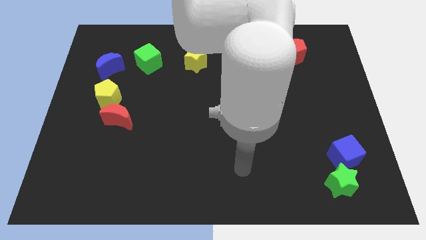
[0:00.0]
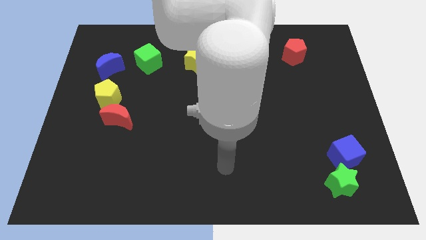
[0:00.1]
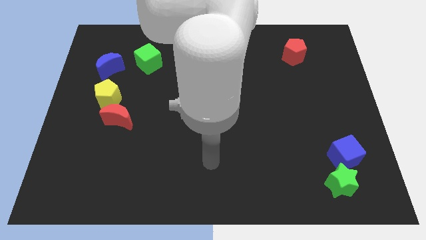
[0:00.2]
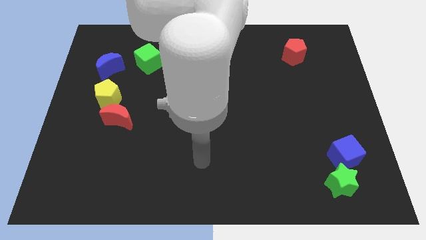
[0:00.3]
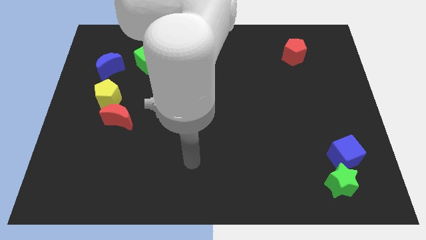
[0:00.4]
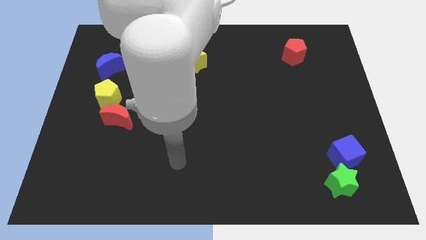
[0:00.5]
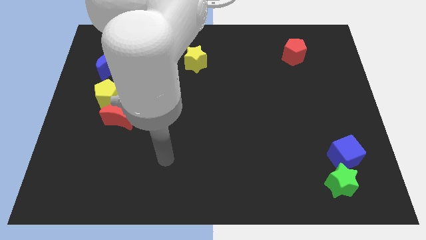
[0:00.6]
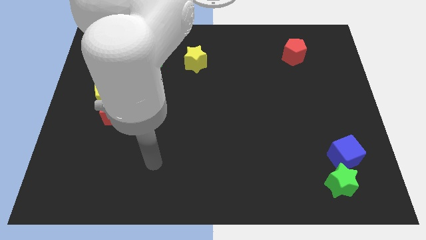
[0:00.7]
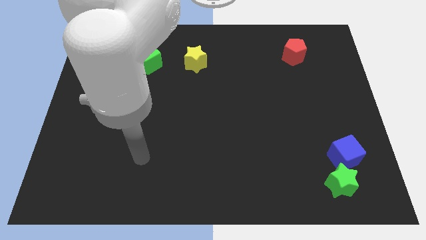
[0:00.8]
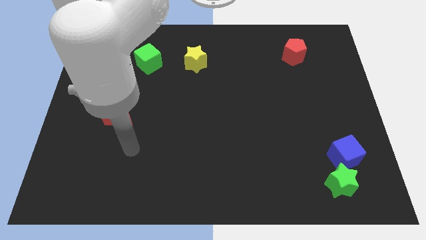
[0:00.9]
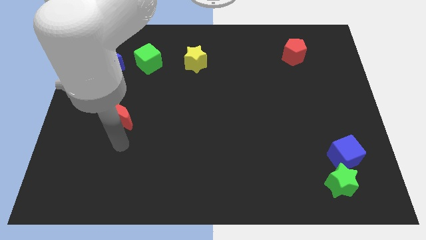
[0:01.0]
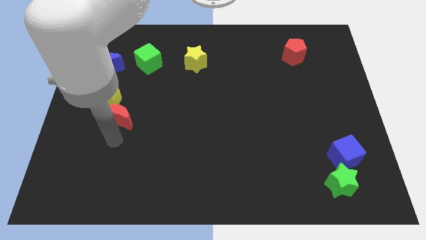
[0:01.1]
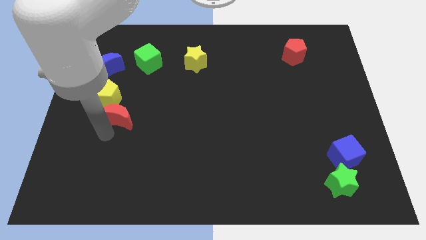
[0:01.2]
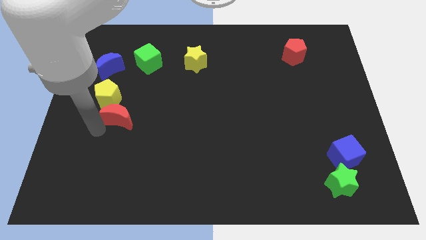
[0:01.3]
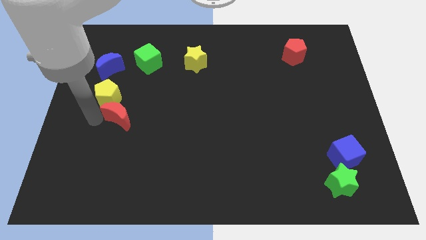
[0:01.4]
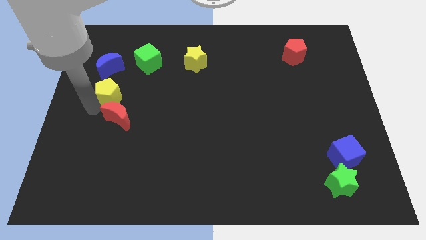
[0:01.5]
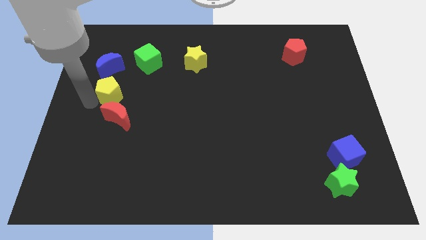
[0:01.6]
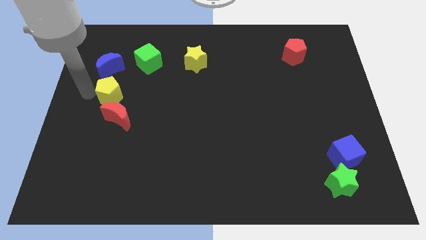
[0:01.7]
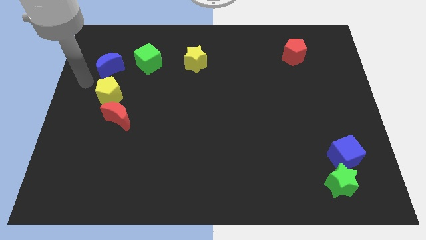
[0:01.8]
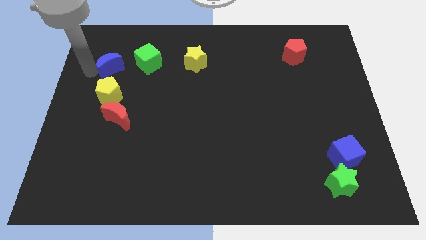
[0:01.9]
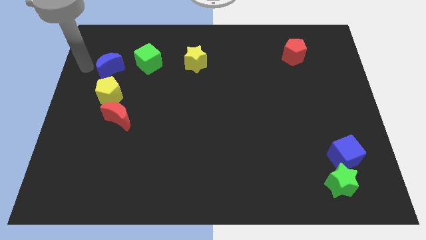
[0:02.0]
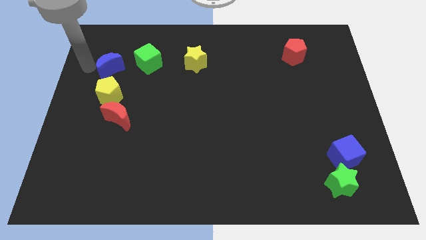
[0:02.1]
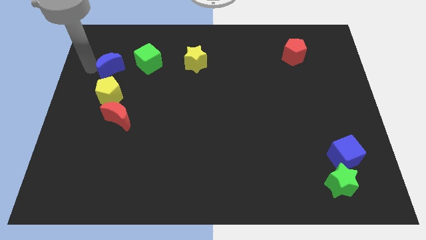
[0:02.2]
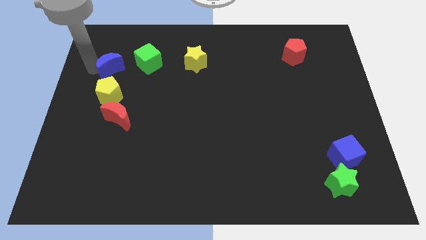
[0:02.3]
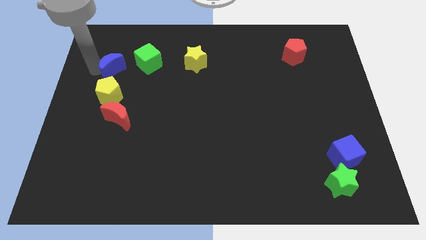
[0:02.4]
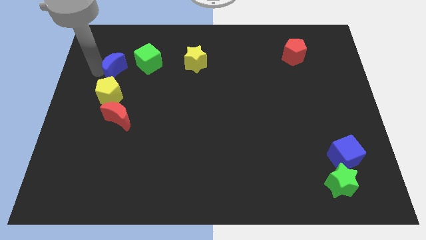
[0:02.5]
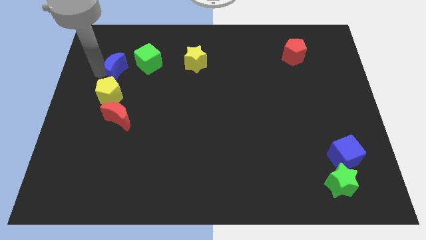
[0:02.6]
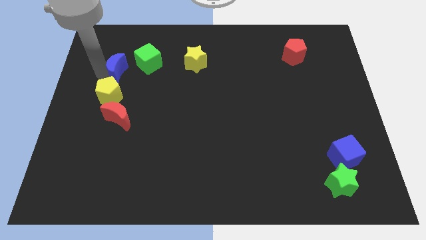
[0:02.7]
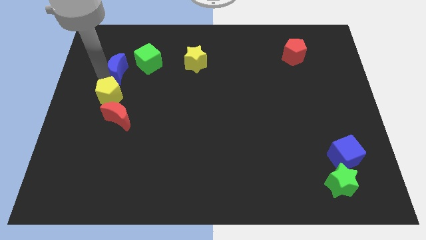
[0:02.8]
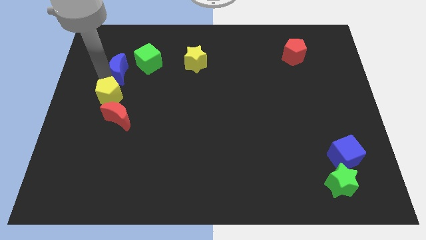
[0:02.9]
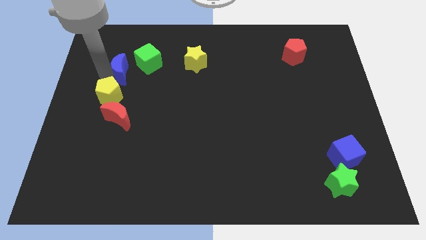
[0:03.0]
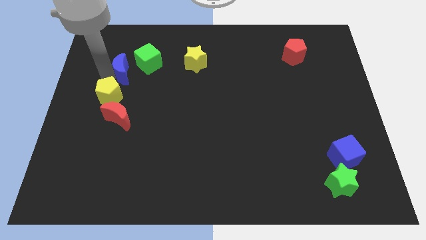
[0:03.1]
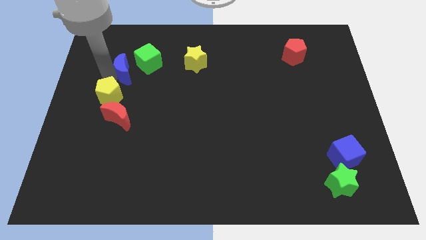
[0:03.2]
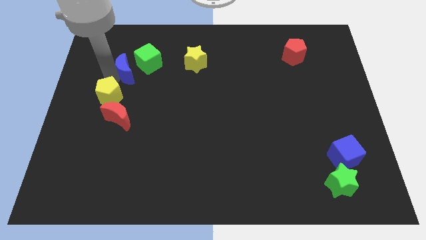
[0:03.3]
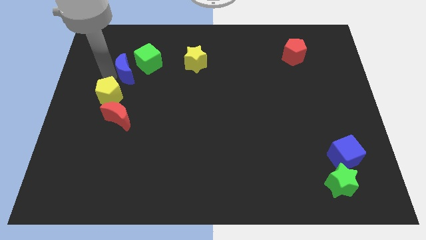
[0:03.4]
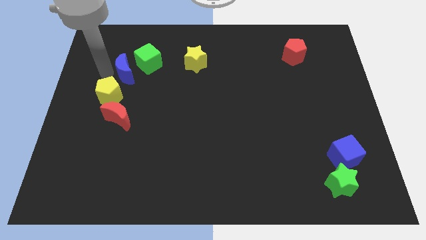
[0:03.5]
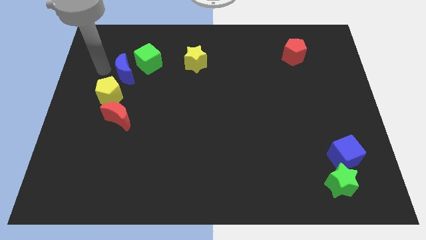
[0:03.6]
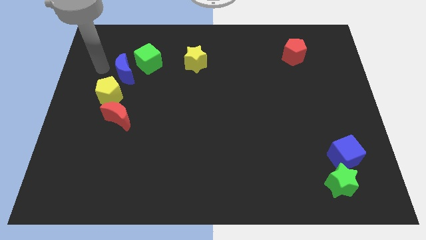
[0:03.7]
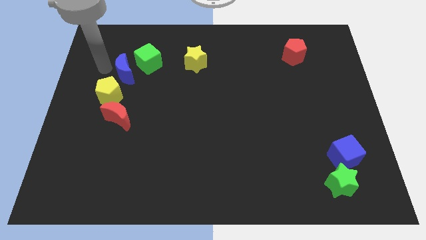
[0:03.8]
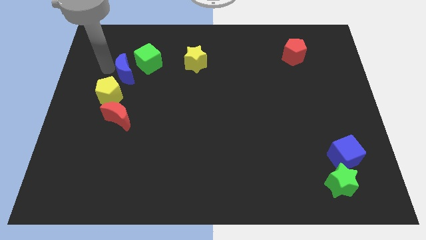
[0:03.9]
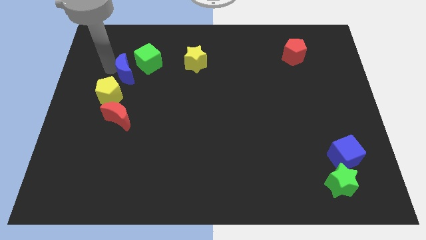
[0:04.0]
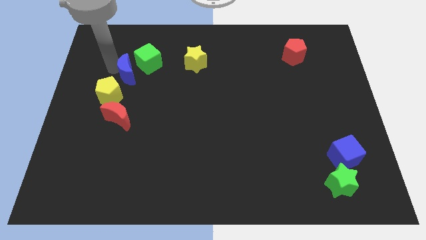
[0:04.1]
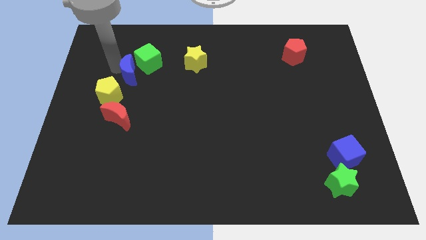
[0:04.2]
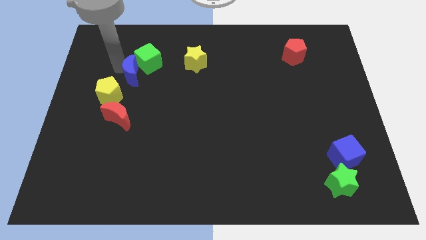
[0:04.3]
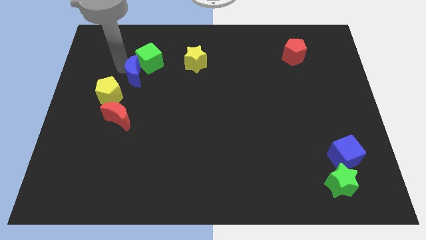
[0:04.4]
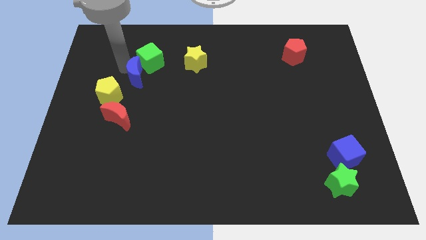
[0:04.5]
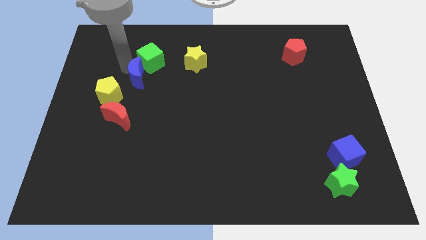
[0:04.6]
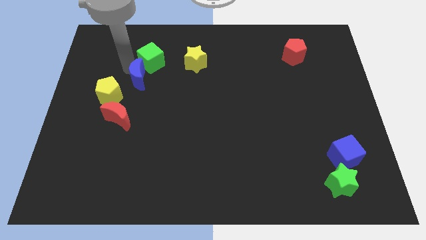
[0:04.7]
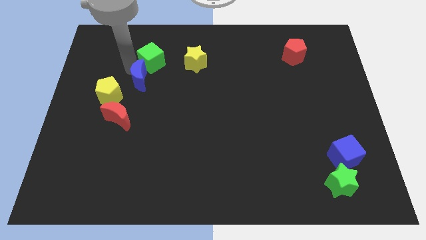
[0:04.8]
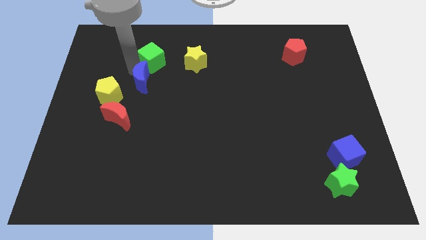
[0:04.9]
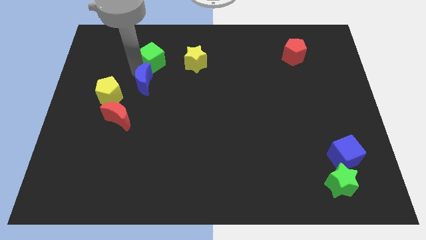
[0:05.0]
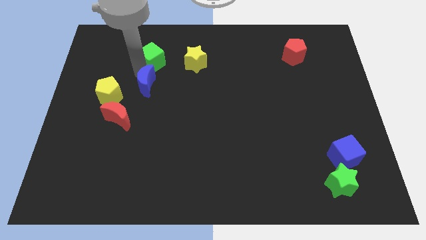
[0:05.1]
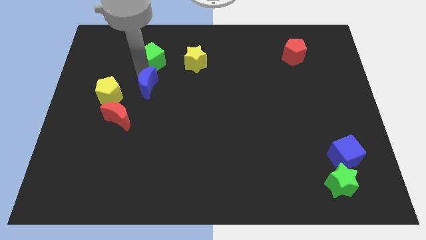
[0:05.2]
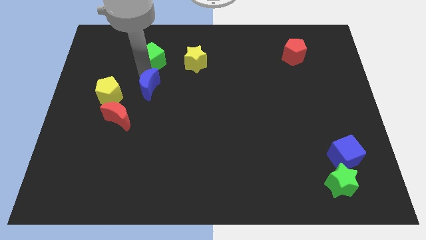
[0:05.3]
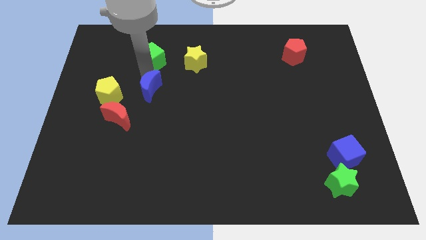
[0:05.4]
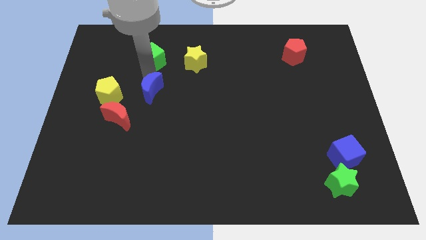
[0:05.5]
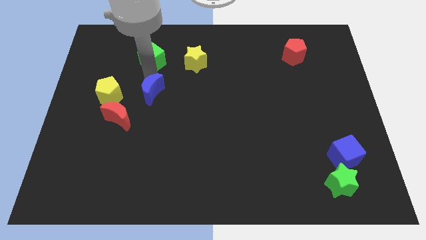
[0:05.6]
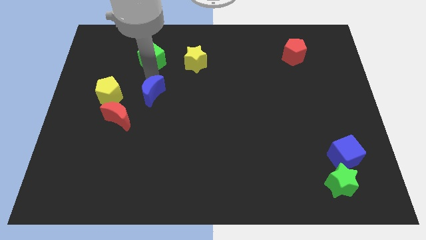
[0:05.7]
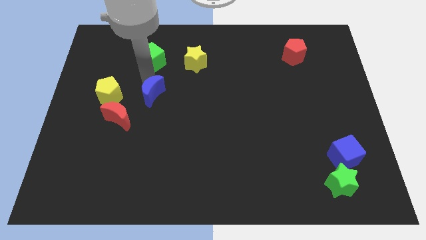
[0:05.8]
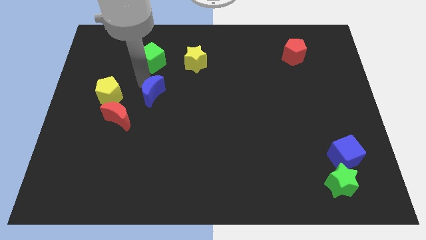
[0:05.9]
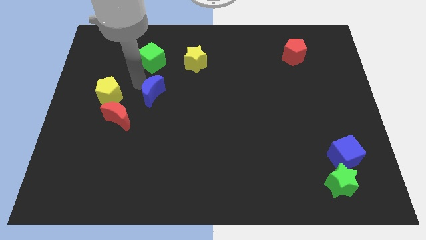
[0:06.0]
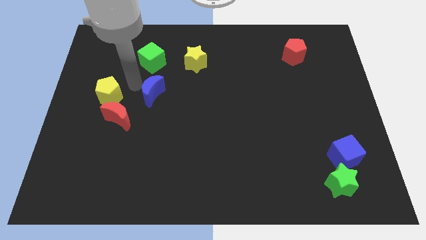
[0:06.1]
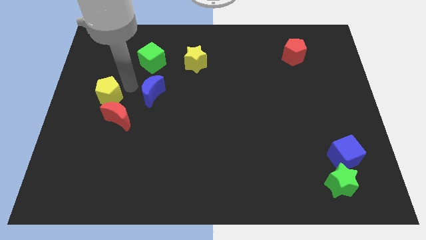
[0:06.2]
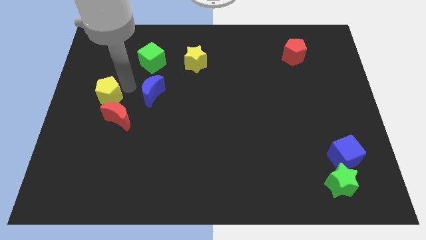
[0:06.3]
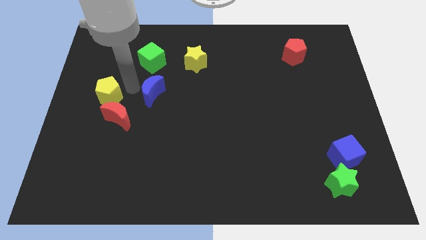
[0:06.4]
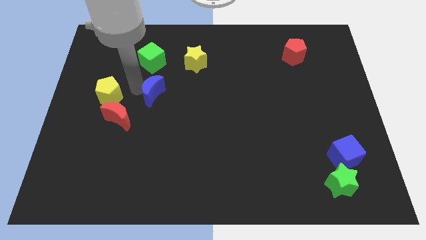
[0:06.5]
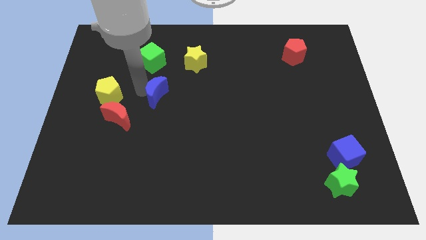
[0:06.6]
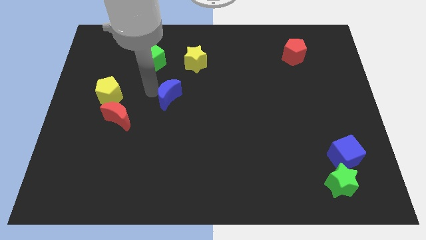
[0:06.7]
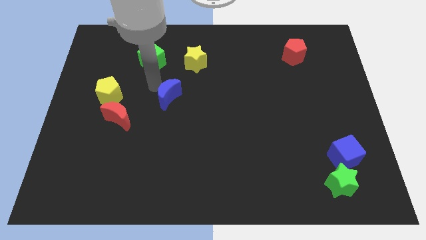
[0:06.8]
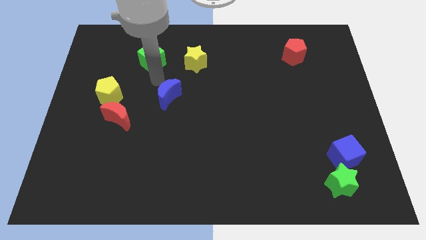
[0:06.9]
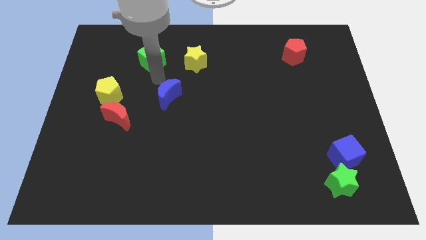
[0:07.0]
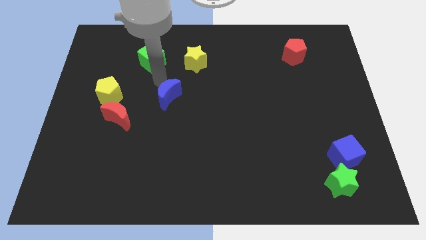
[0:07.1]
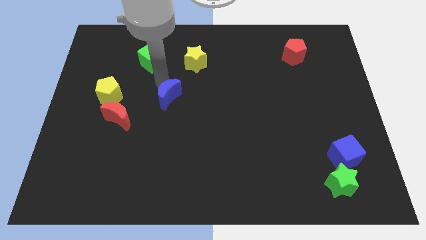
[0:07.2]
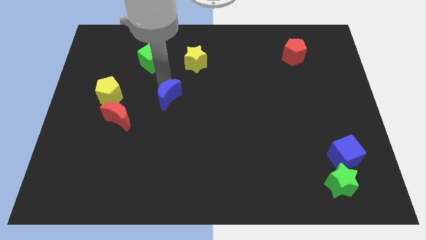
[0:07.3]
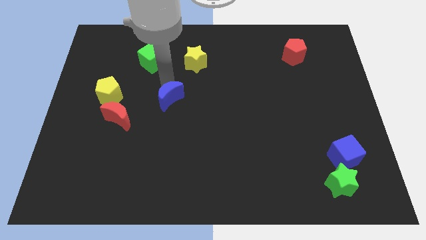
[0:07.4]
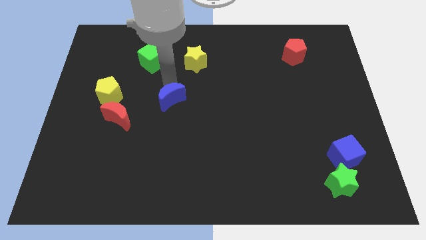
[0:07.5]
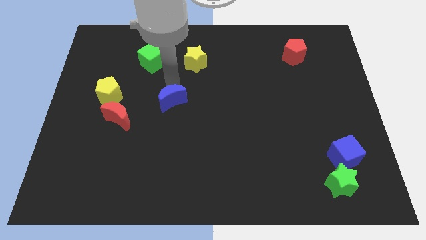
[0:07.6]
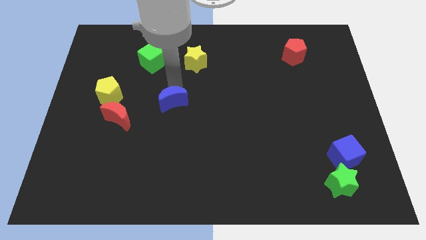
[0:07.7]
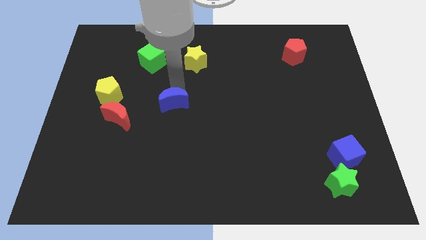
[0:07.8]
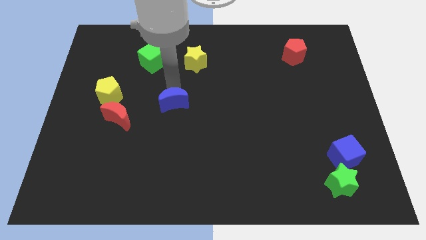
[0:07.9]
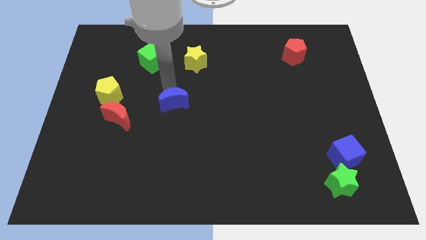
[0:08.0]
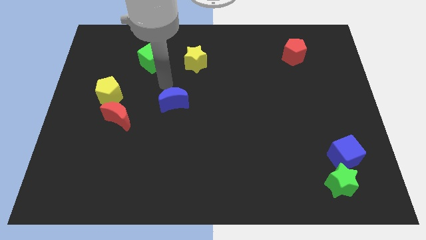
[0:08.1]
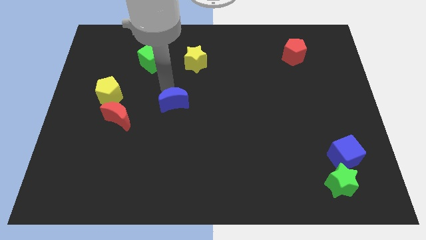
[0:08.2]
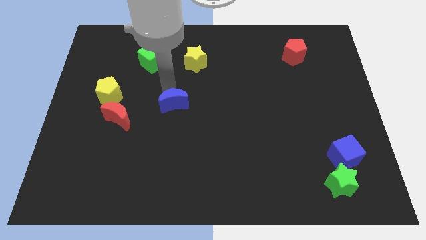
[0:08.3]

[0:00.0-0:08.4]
slide the blue moon downwards and right diagonally

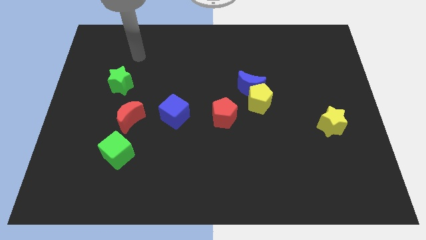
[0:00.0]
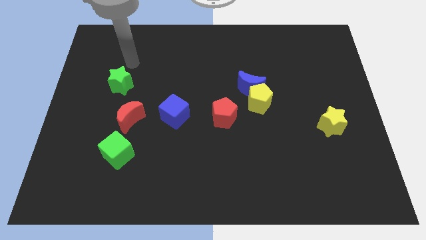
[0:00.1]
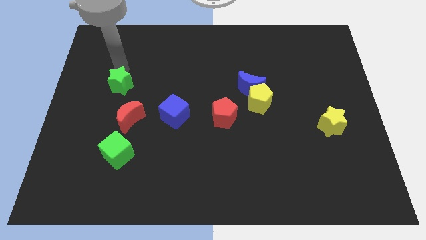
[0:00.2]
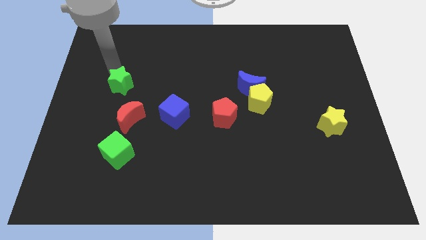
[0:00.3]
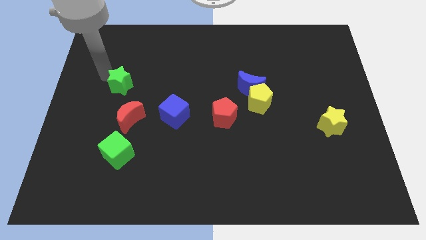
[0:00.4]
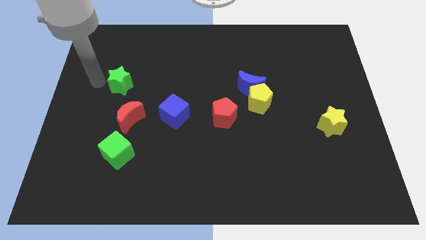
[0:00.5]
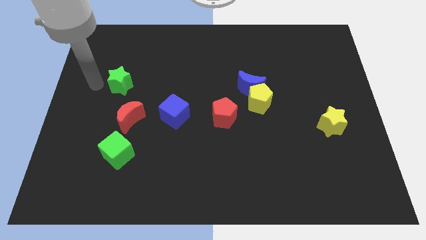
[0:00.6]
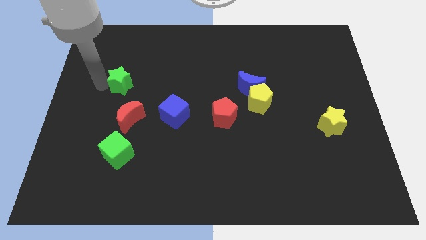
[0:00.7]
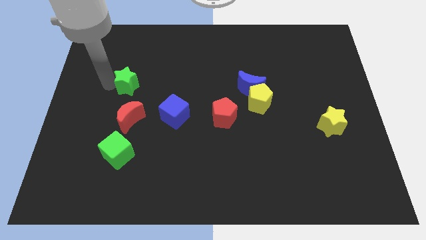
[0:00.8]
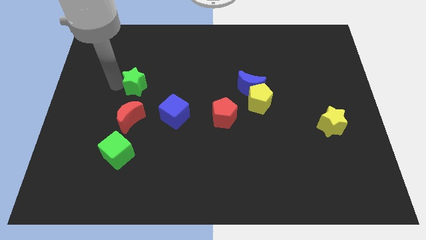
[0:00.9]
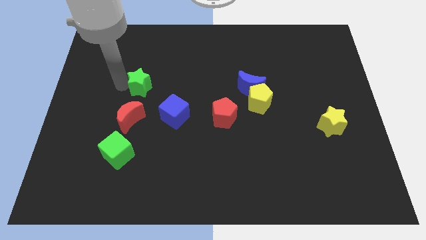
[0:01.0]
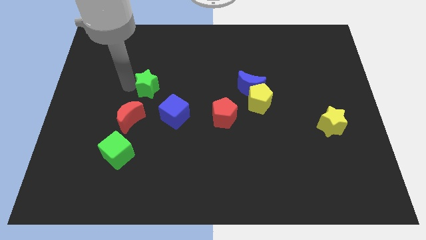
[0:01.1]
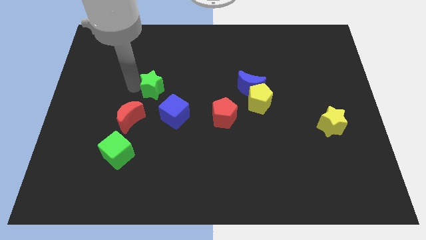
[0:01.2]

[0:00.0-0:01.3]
slightly push the green star right
